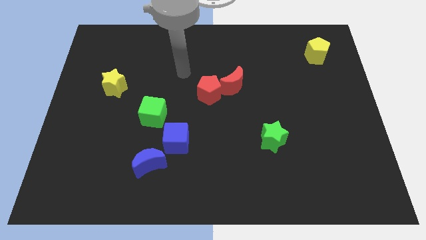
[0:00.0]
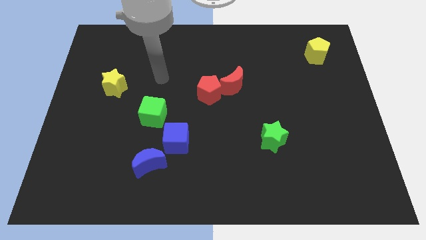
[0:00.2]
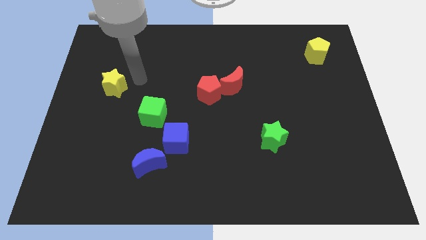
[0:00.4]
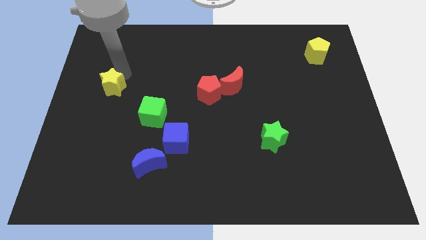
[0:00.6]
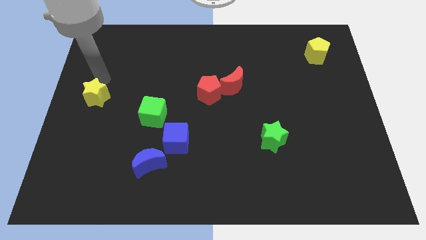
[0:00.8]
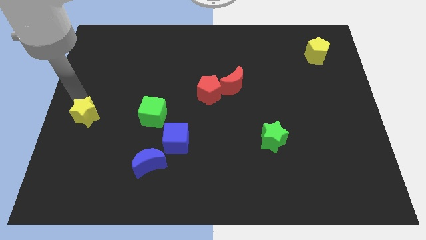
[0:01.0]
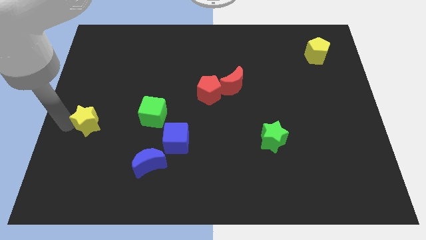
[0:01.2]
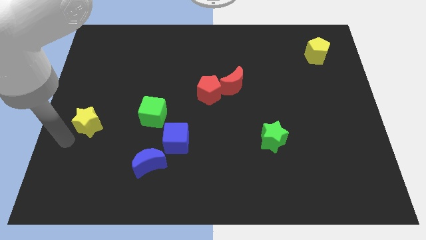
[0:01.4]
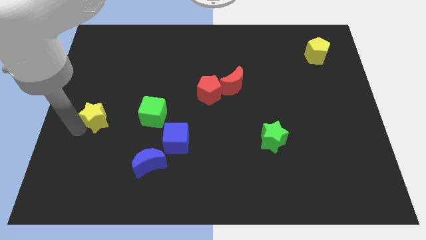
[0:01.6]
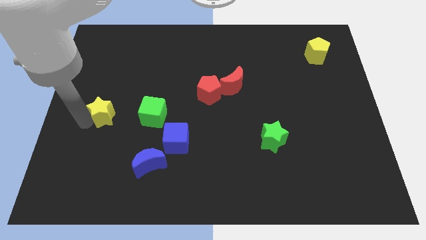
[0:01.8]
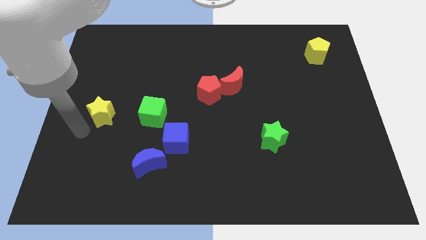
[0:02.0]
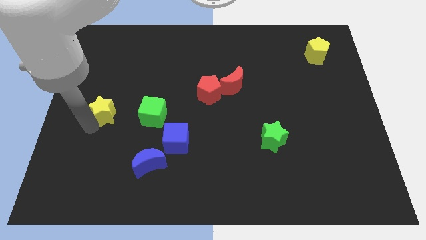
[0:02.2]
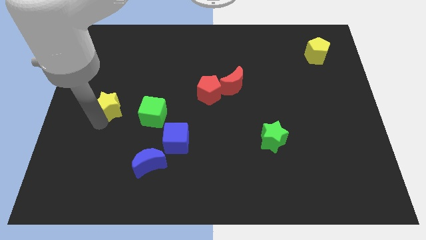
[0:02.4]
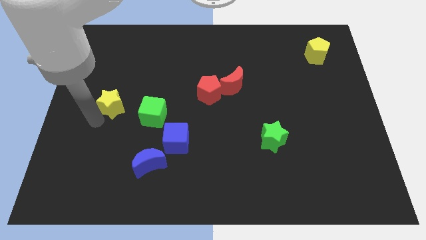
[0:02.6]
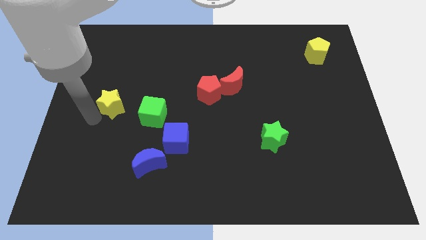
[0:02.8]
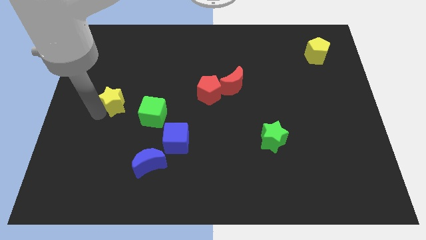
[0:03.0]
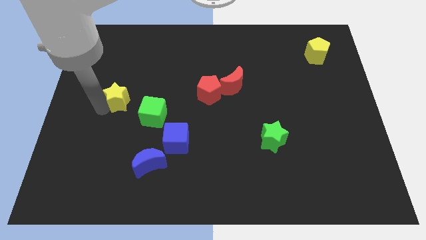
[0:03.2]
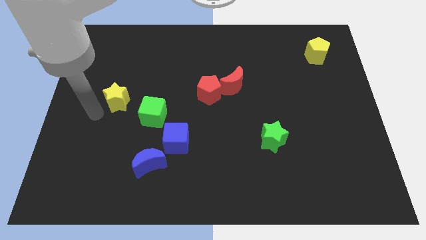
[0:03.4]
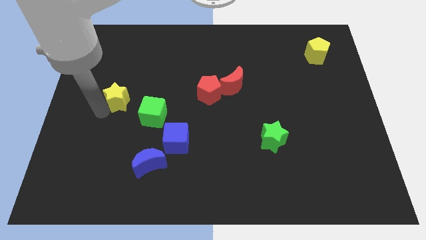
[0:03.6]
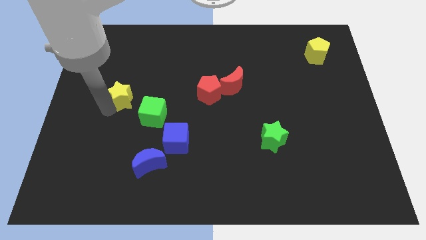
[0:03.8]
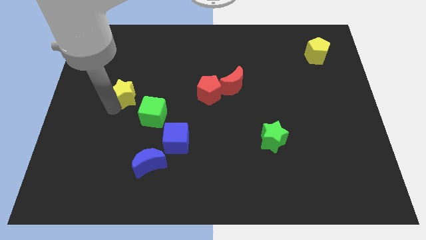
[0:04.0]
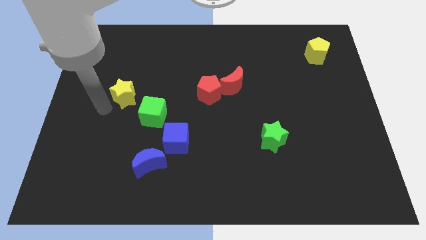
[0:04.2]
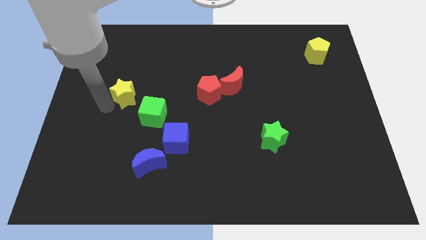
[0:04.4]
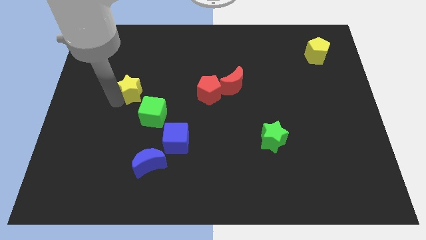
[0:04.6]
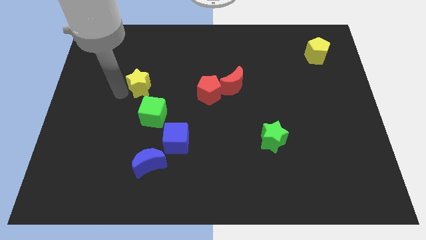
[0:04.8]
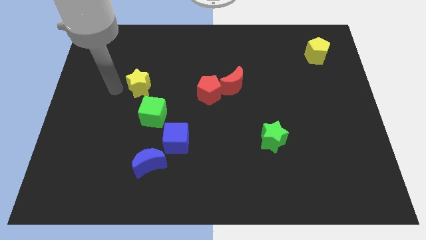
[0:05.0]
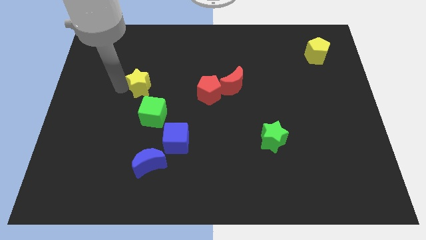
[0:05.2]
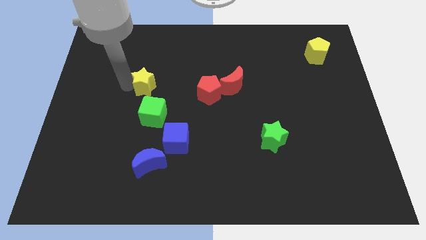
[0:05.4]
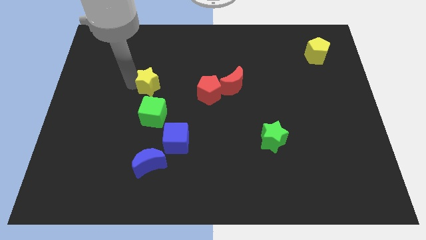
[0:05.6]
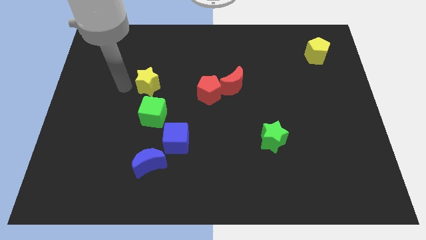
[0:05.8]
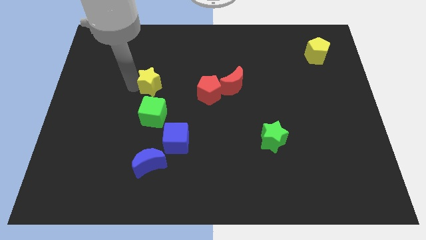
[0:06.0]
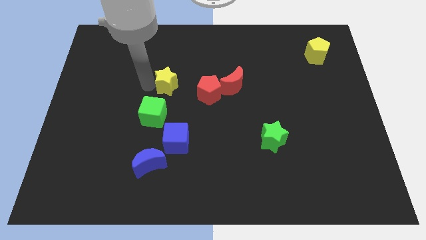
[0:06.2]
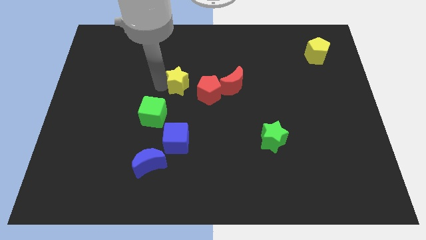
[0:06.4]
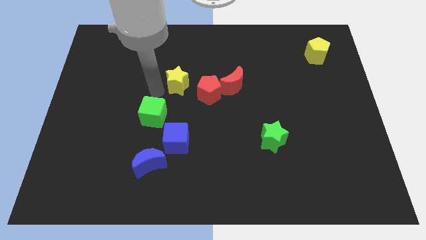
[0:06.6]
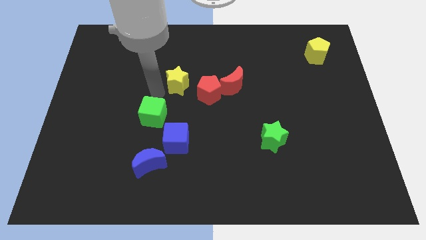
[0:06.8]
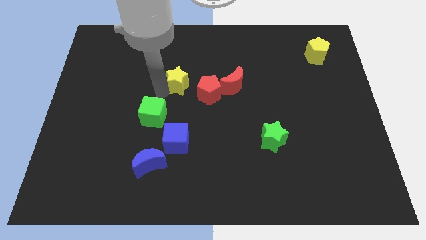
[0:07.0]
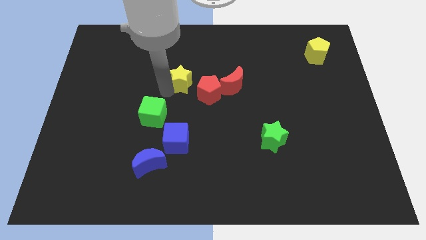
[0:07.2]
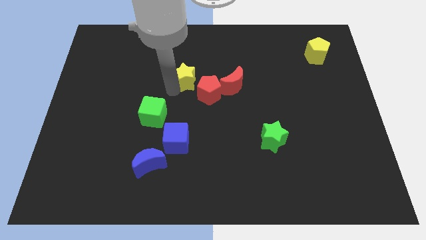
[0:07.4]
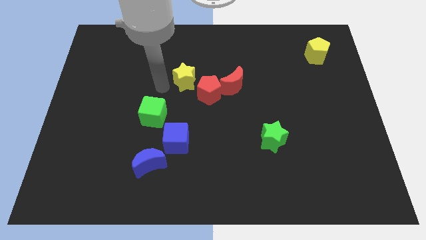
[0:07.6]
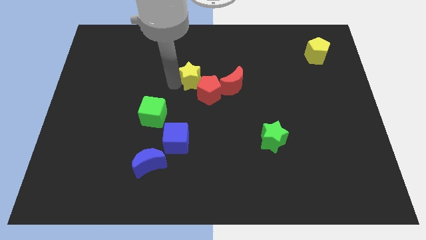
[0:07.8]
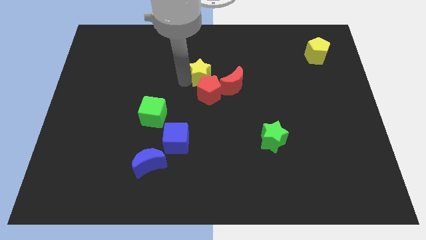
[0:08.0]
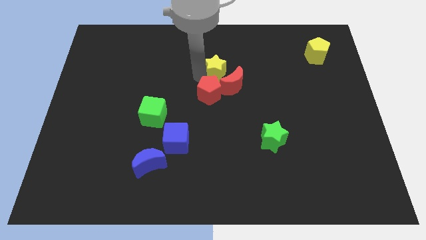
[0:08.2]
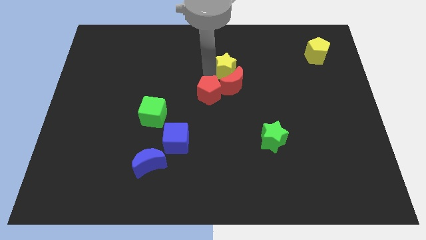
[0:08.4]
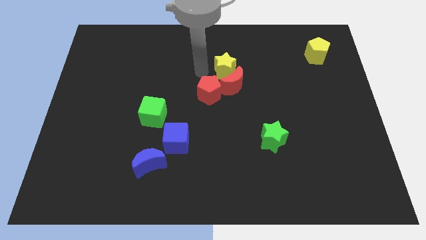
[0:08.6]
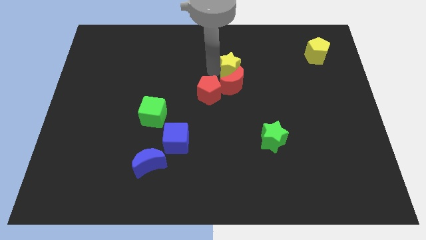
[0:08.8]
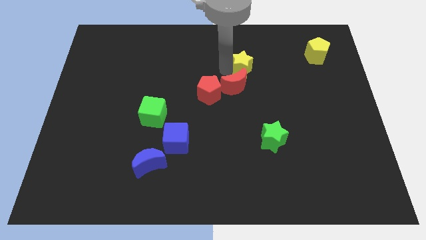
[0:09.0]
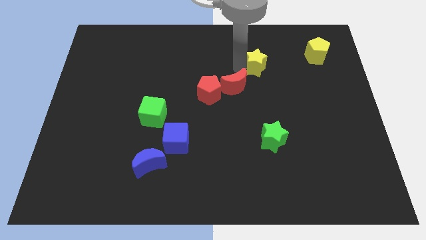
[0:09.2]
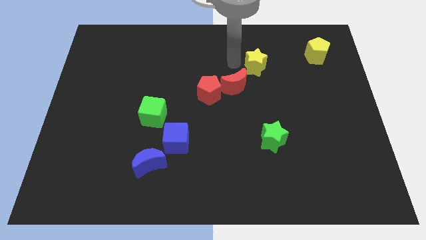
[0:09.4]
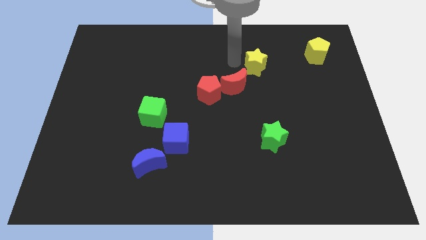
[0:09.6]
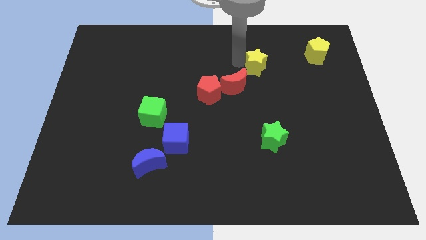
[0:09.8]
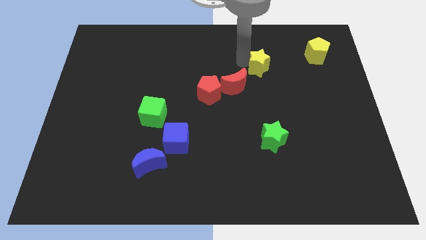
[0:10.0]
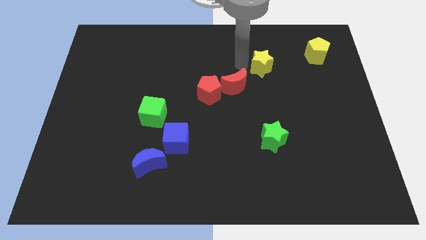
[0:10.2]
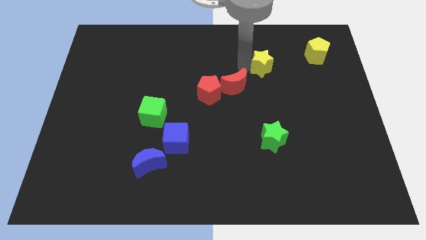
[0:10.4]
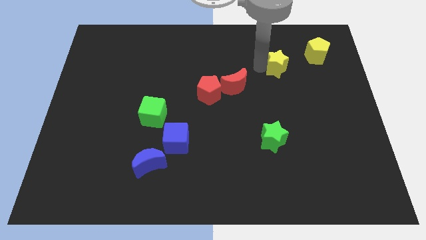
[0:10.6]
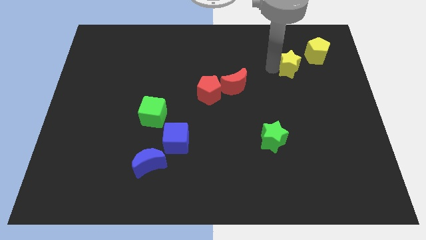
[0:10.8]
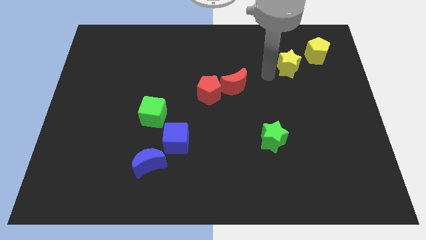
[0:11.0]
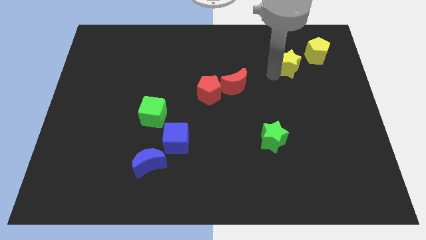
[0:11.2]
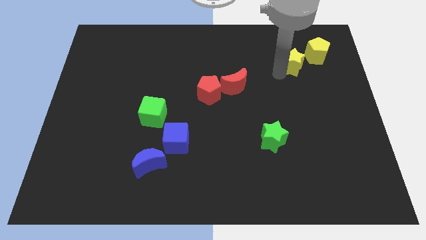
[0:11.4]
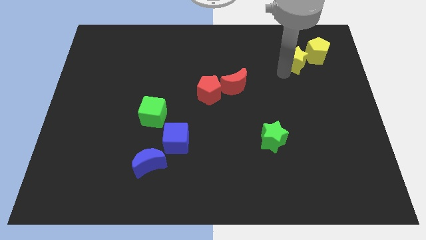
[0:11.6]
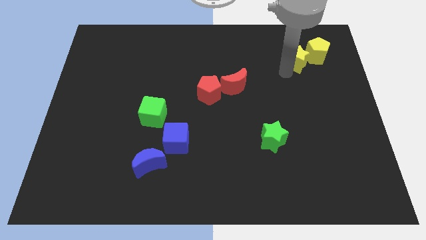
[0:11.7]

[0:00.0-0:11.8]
slide the yellow star towards the yellow pentagon
